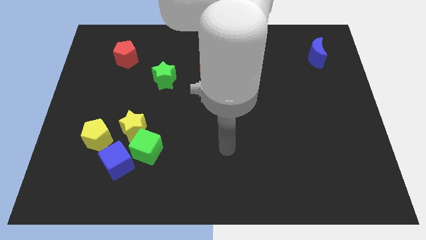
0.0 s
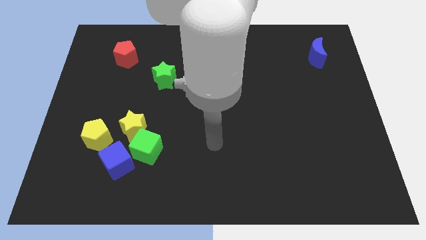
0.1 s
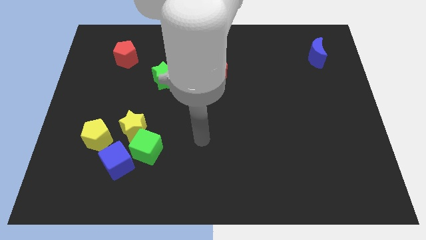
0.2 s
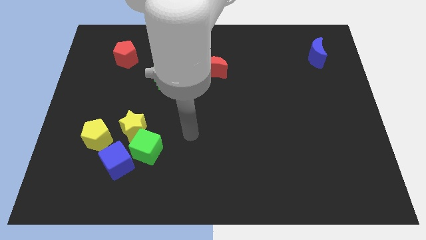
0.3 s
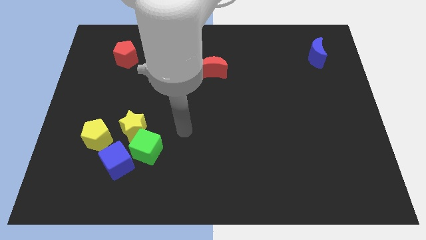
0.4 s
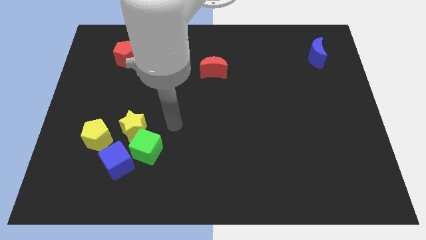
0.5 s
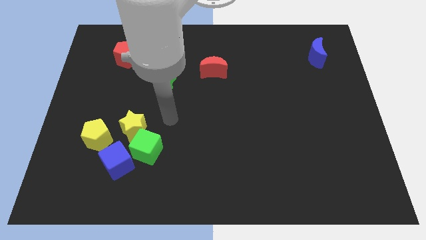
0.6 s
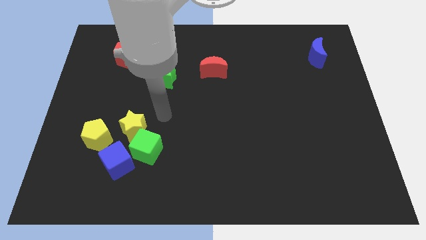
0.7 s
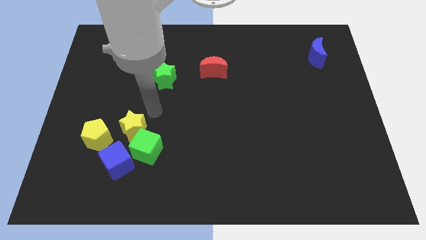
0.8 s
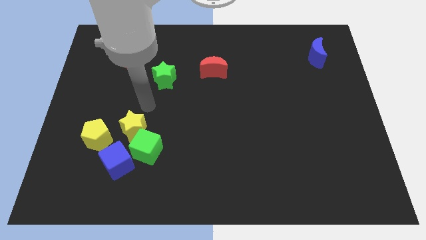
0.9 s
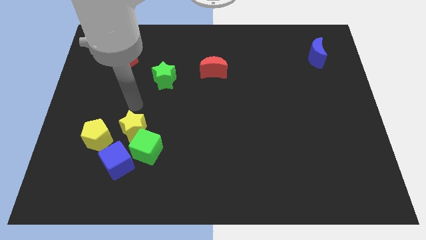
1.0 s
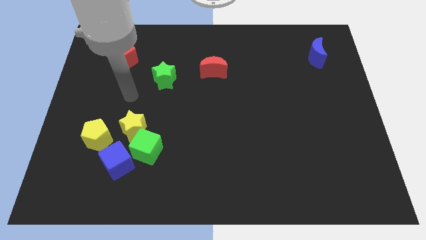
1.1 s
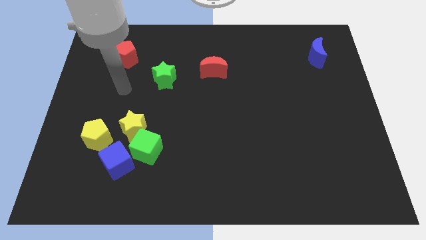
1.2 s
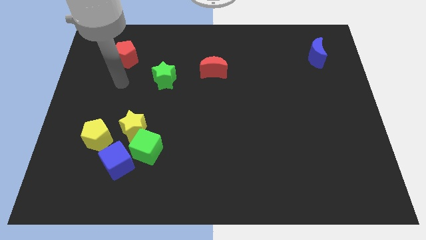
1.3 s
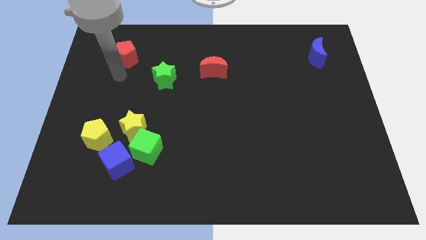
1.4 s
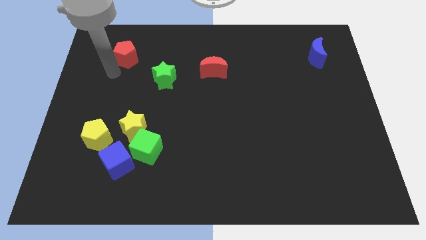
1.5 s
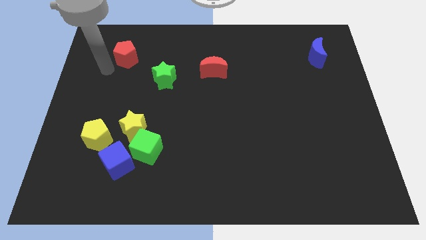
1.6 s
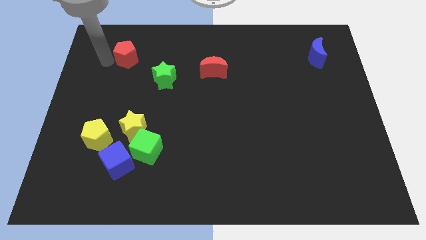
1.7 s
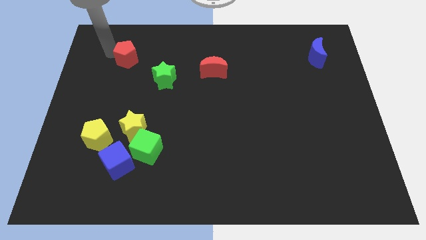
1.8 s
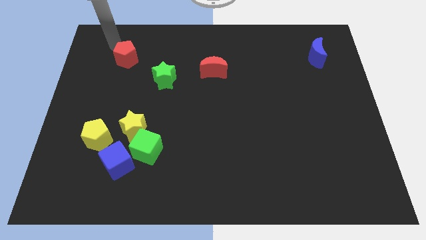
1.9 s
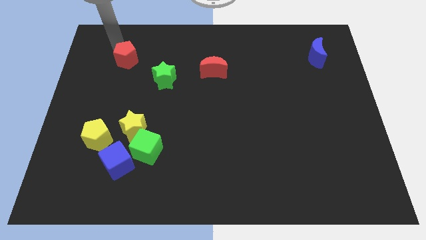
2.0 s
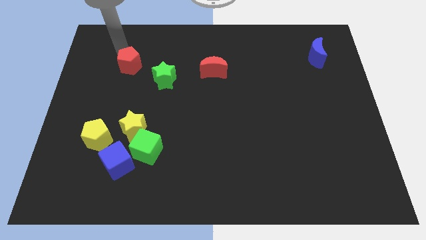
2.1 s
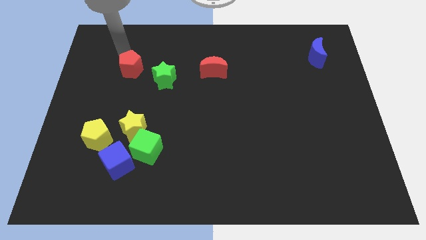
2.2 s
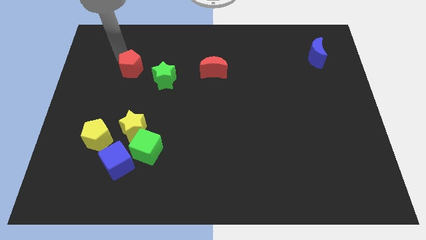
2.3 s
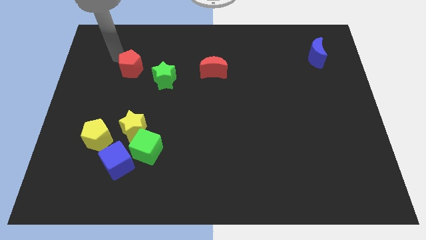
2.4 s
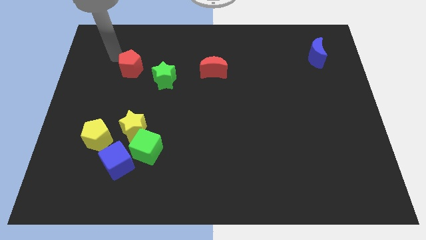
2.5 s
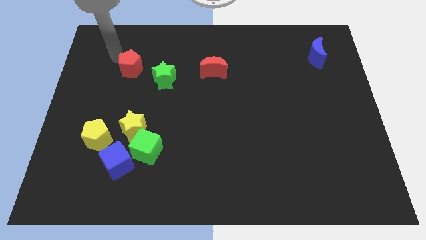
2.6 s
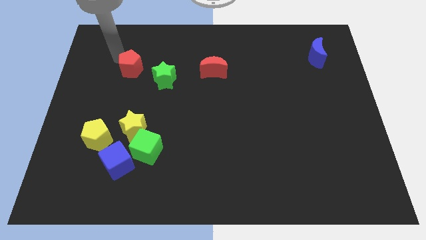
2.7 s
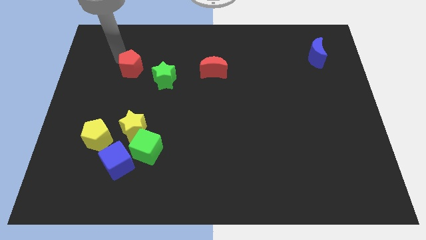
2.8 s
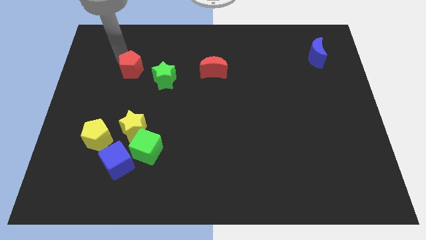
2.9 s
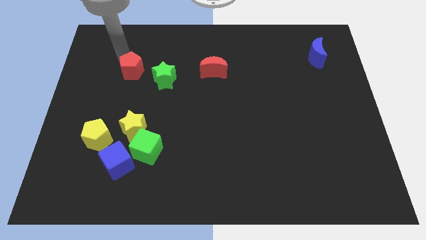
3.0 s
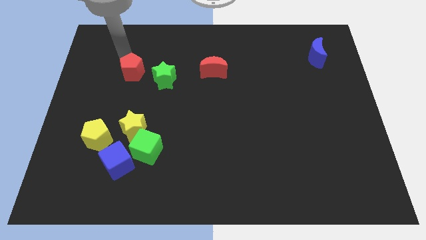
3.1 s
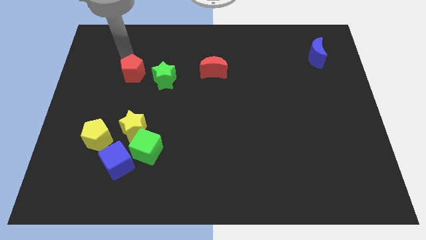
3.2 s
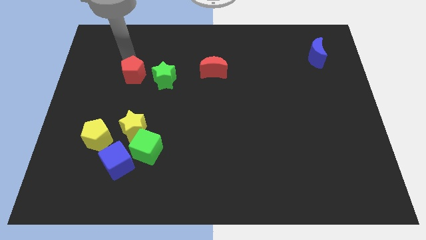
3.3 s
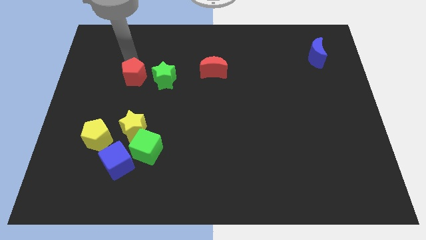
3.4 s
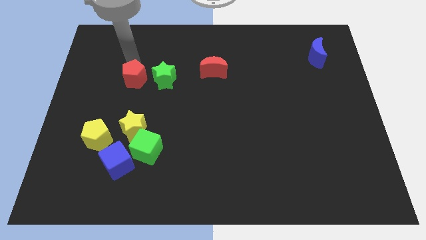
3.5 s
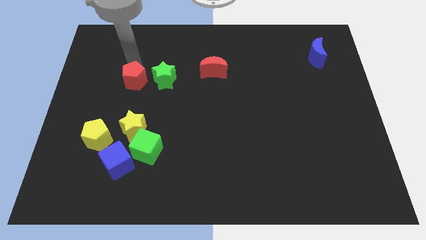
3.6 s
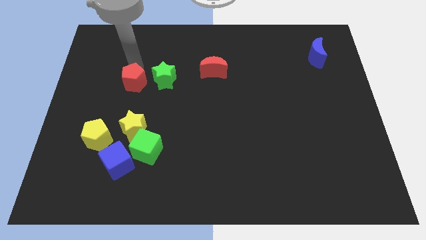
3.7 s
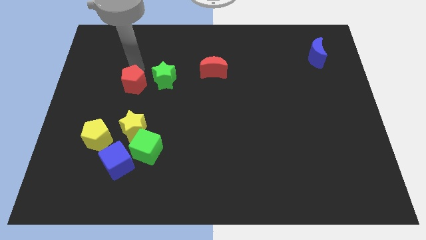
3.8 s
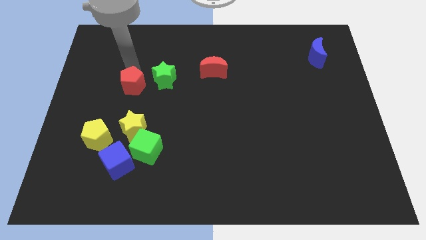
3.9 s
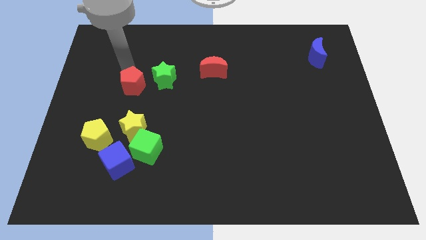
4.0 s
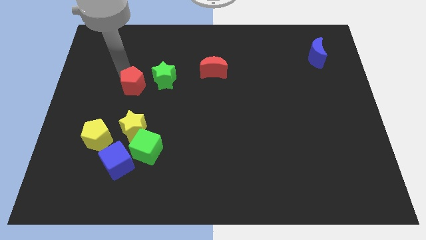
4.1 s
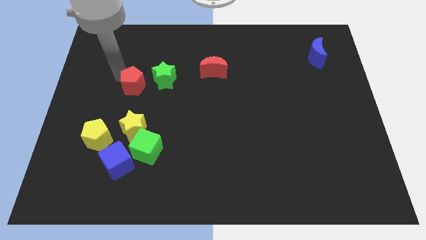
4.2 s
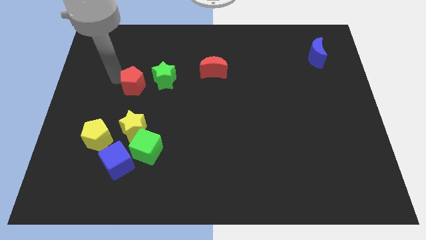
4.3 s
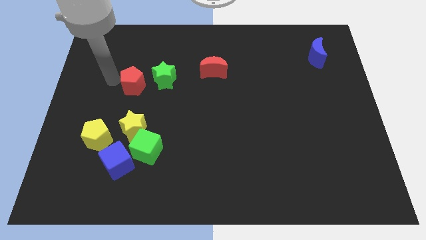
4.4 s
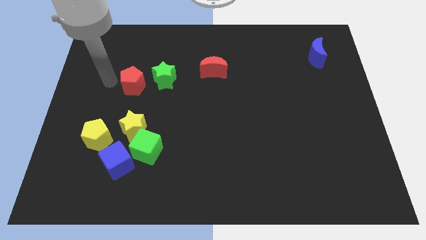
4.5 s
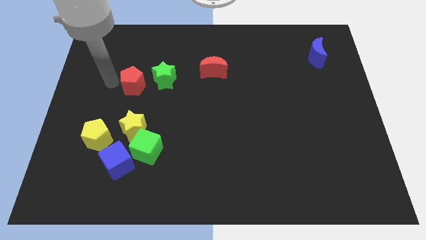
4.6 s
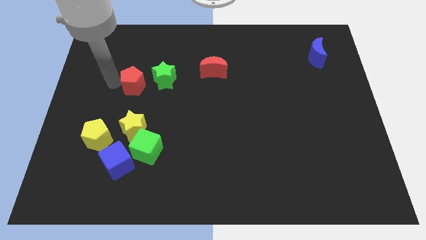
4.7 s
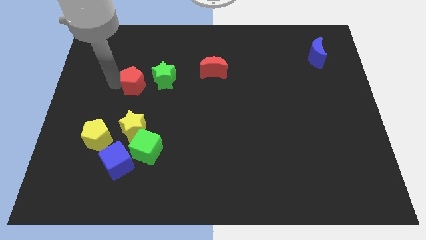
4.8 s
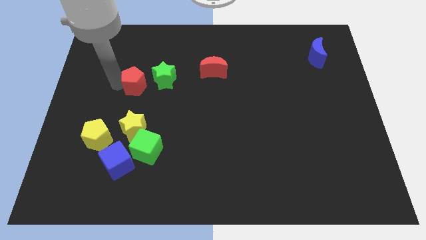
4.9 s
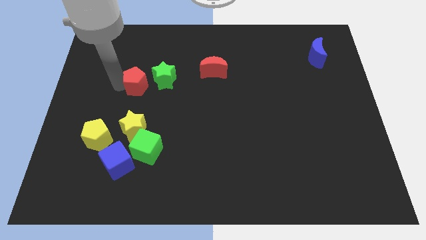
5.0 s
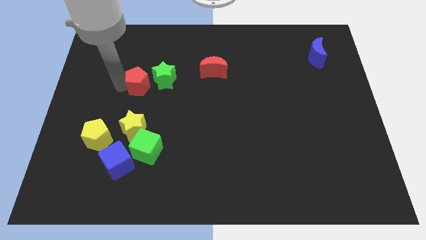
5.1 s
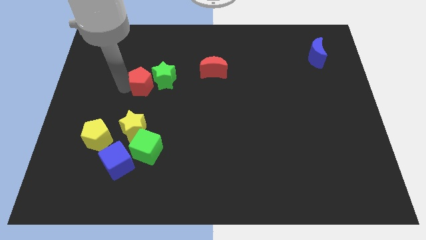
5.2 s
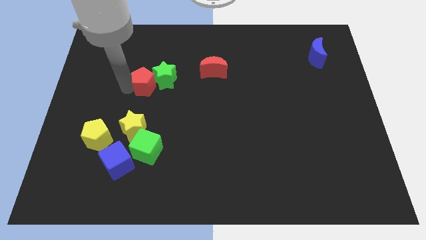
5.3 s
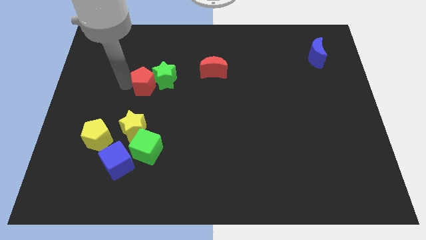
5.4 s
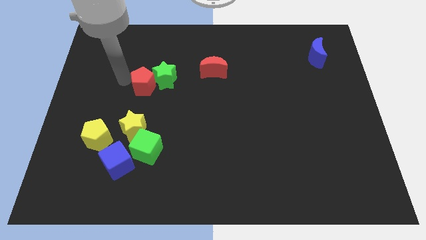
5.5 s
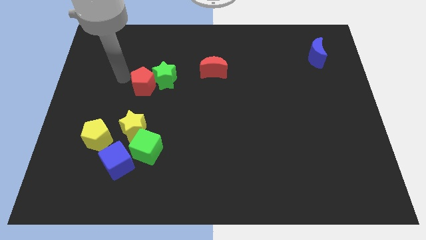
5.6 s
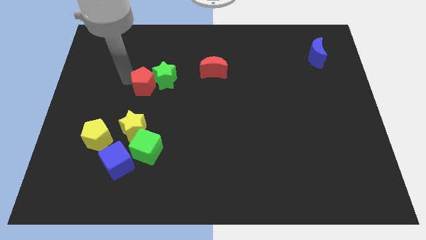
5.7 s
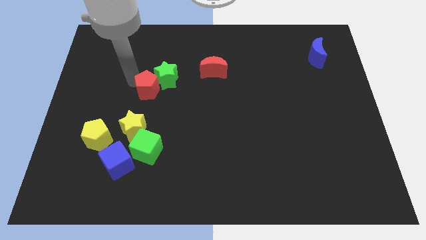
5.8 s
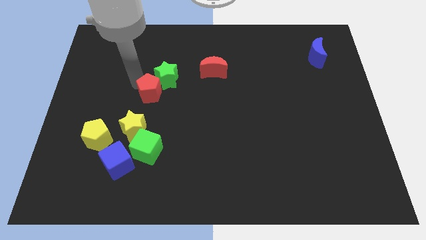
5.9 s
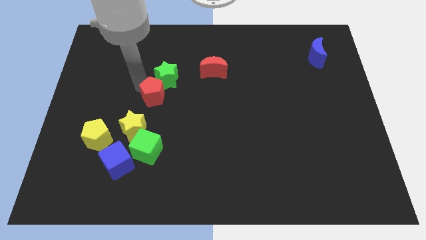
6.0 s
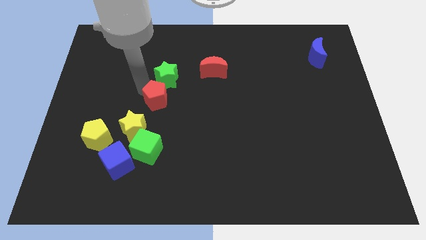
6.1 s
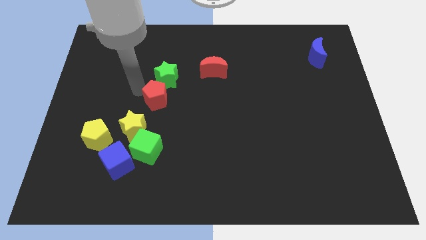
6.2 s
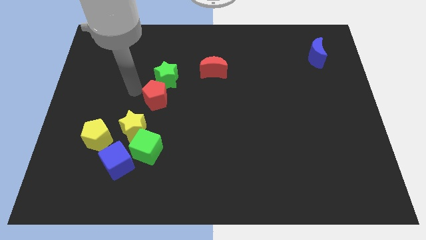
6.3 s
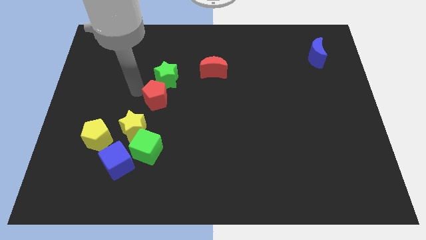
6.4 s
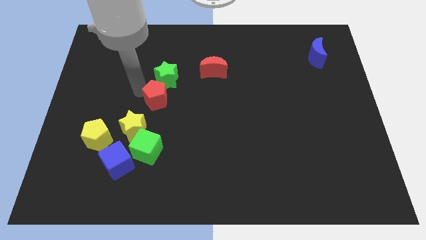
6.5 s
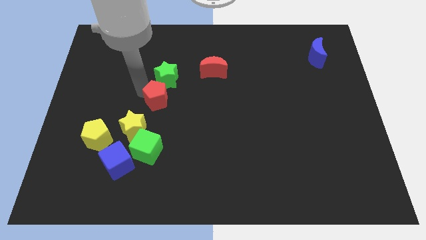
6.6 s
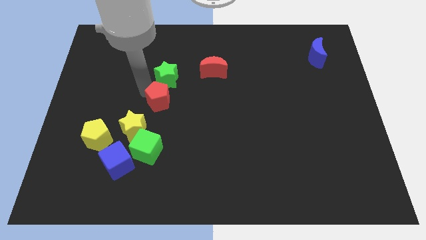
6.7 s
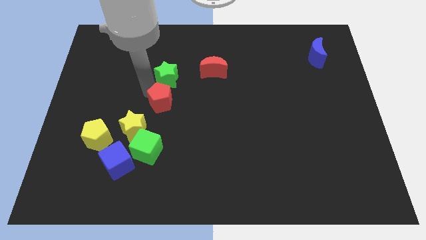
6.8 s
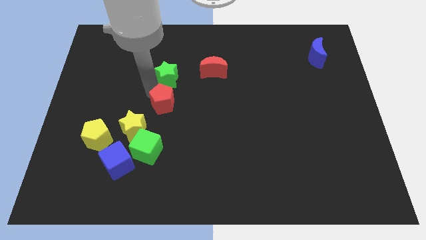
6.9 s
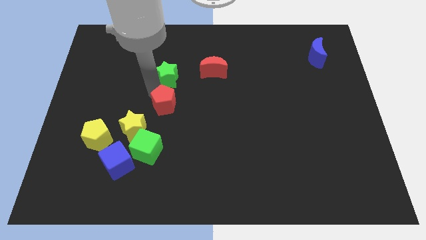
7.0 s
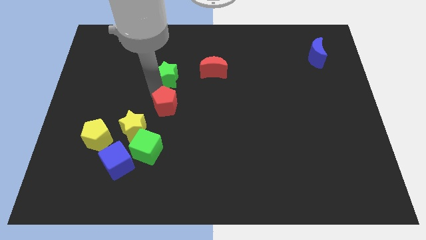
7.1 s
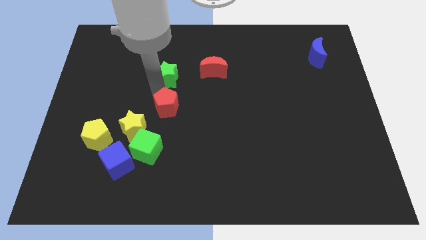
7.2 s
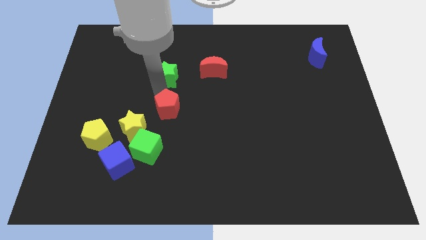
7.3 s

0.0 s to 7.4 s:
push the red pentagon downwards and to the right

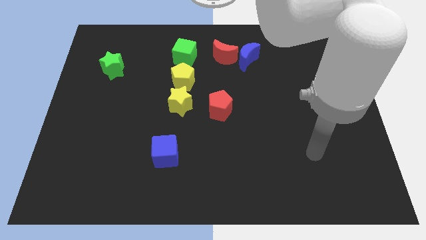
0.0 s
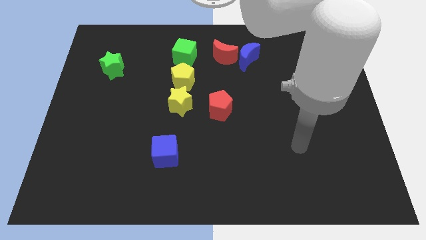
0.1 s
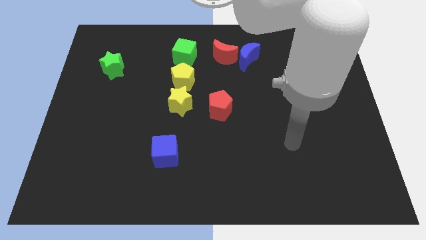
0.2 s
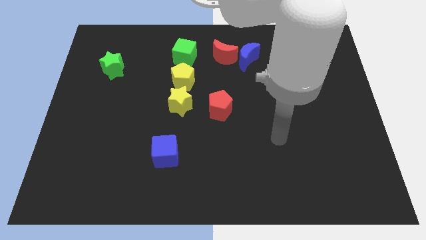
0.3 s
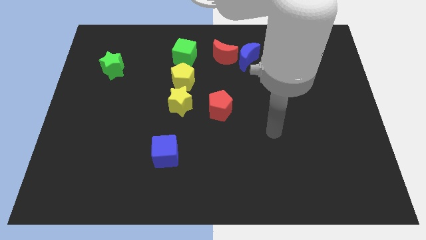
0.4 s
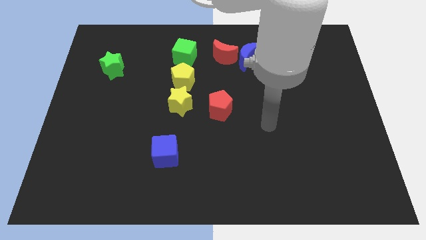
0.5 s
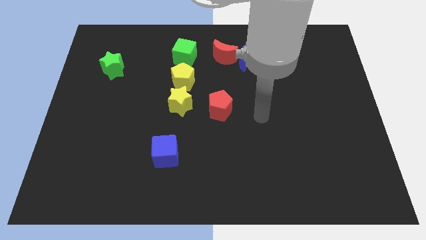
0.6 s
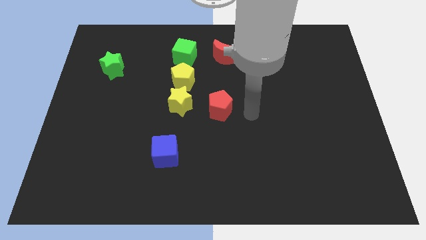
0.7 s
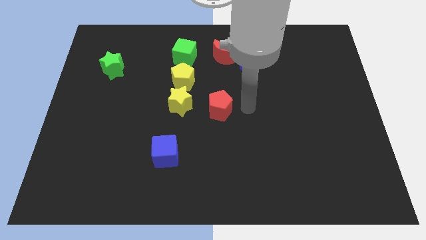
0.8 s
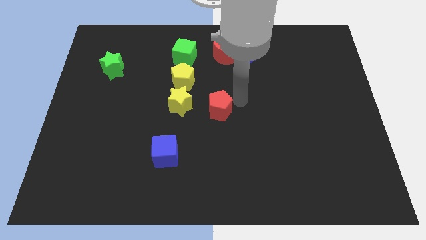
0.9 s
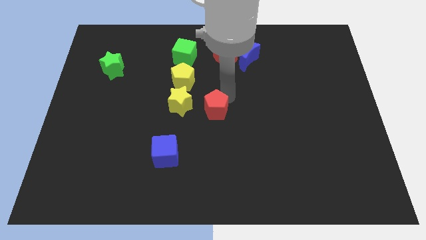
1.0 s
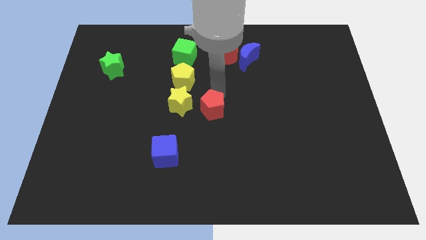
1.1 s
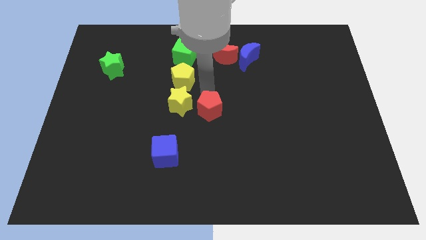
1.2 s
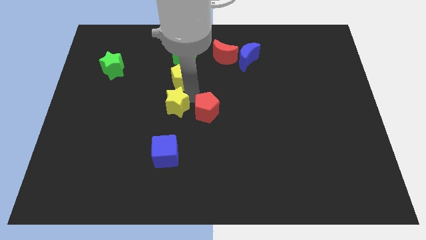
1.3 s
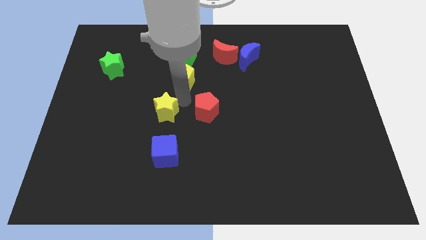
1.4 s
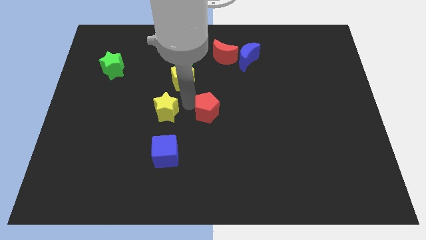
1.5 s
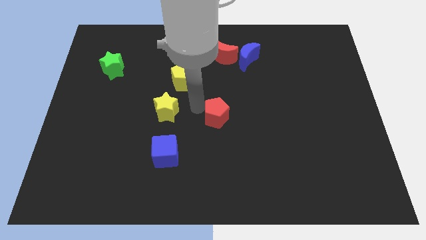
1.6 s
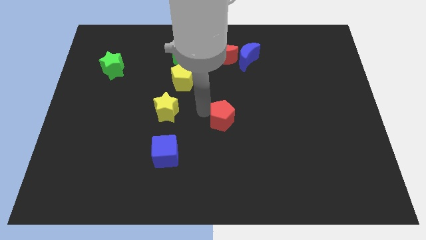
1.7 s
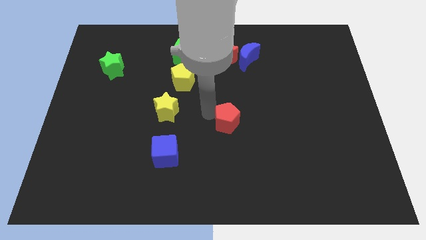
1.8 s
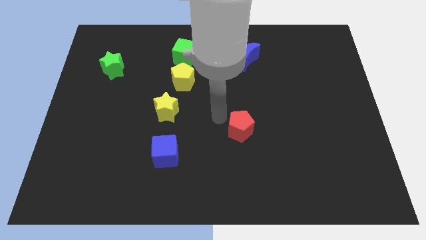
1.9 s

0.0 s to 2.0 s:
slide the red pentagon downwards and then right slightly
